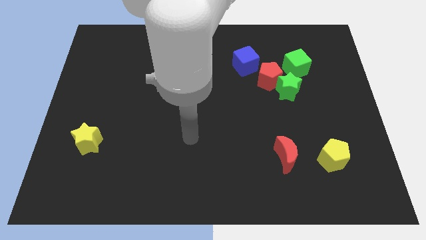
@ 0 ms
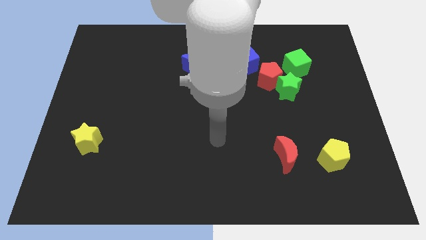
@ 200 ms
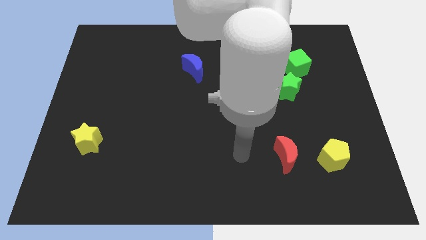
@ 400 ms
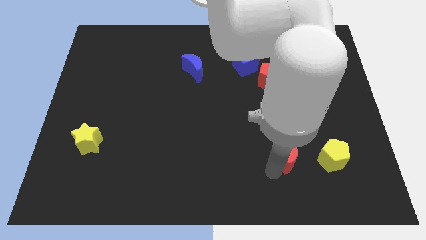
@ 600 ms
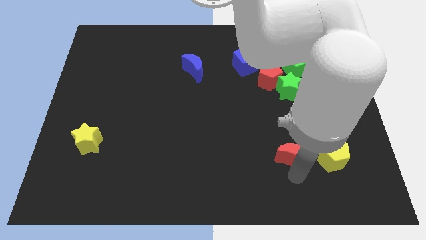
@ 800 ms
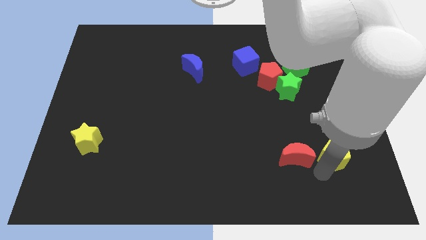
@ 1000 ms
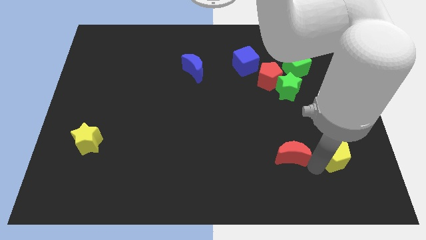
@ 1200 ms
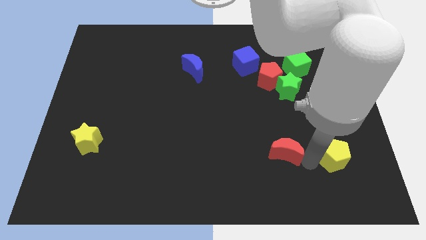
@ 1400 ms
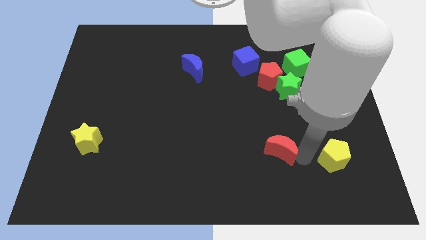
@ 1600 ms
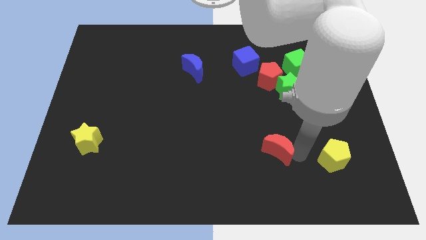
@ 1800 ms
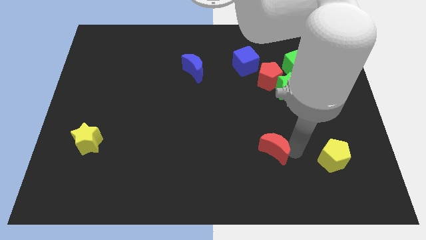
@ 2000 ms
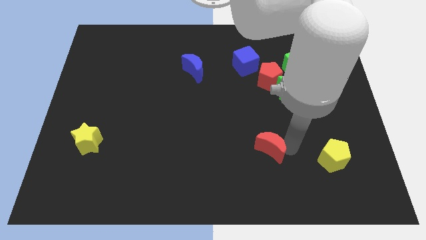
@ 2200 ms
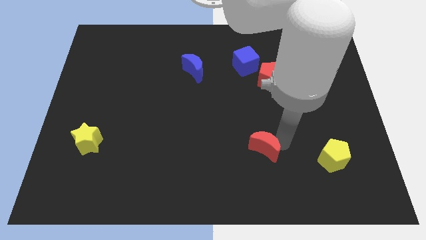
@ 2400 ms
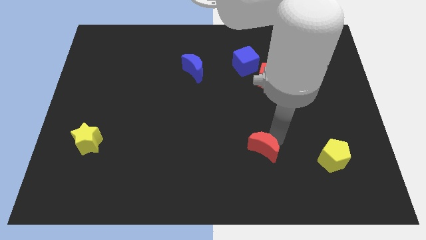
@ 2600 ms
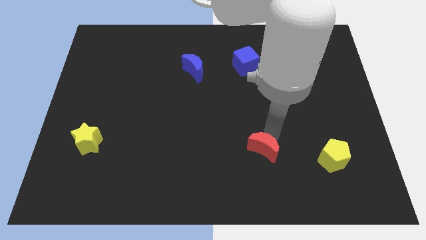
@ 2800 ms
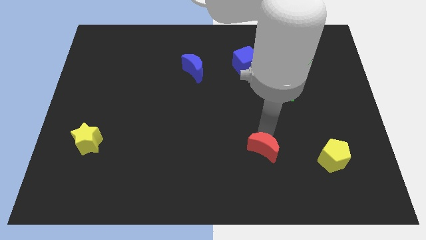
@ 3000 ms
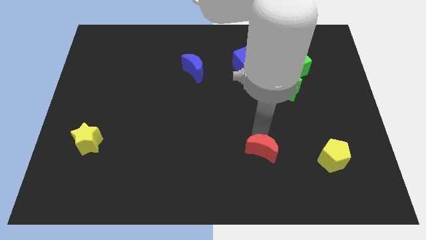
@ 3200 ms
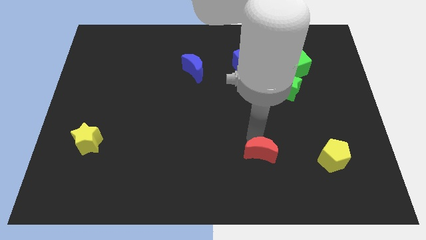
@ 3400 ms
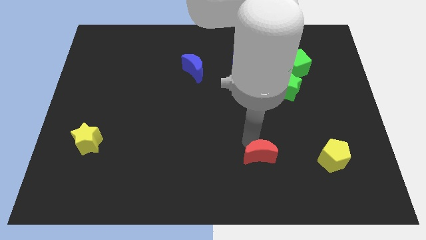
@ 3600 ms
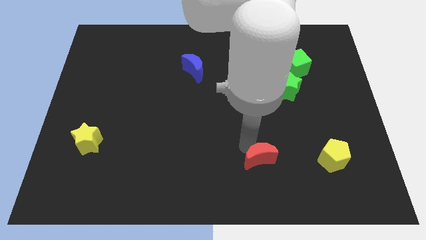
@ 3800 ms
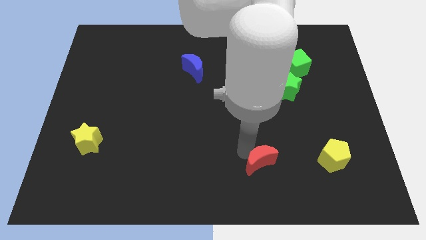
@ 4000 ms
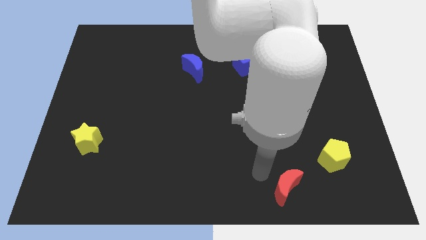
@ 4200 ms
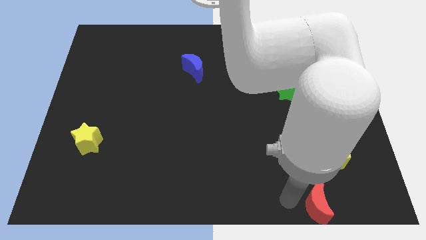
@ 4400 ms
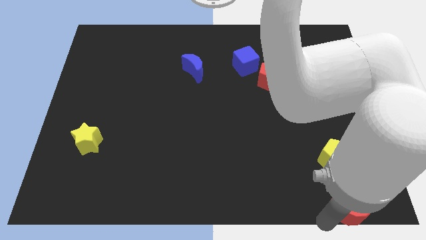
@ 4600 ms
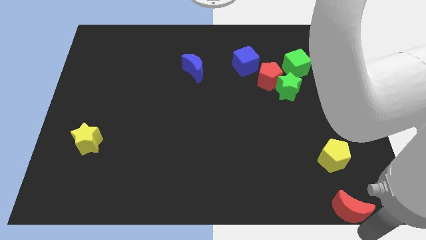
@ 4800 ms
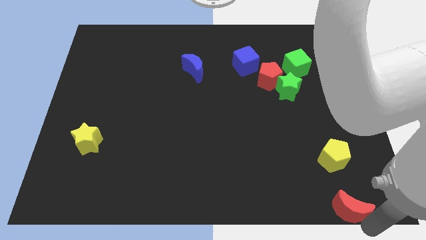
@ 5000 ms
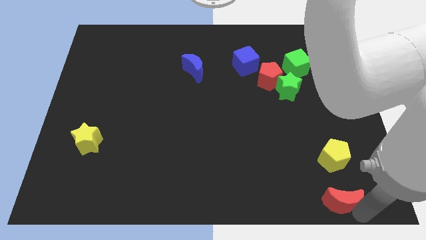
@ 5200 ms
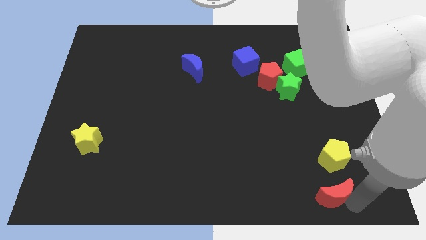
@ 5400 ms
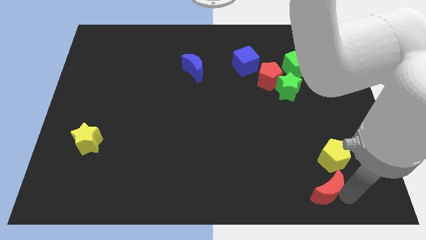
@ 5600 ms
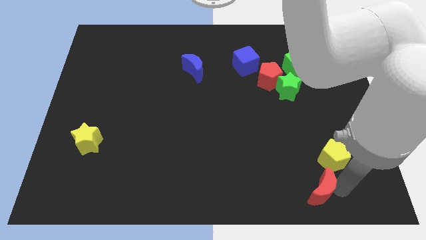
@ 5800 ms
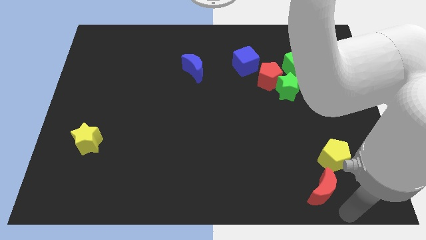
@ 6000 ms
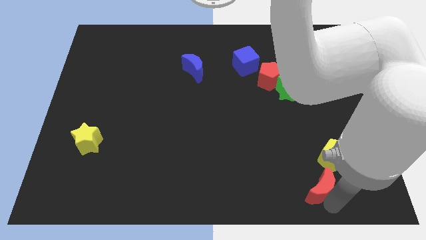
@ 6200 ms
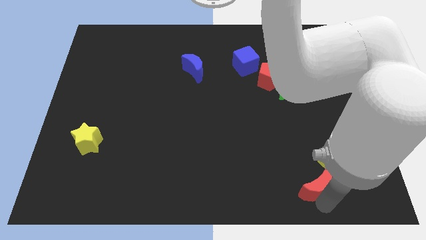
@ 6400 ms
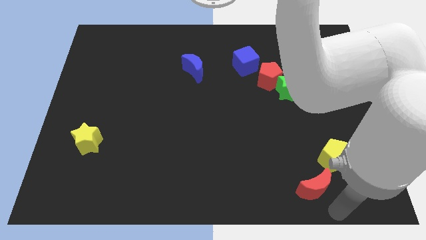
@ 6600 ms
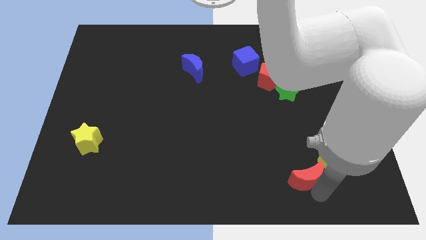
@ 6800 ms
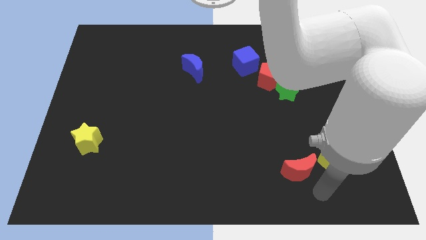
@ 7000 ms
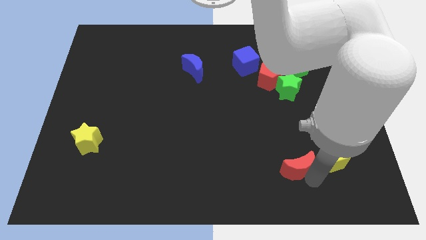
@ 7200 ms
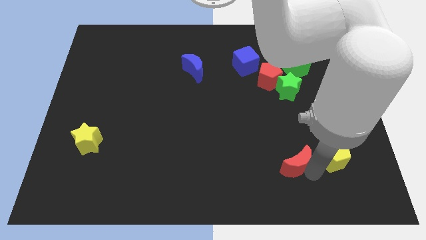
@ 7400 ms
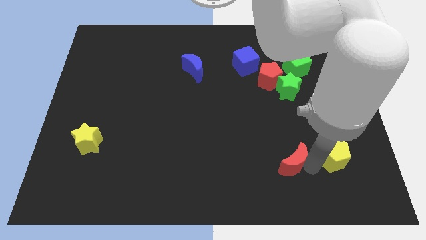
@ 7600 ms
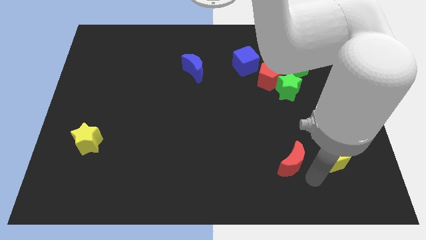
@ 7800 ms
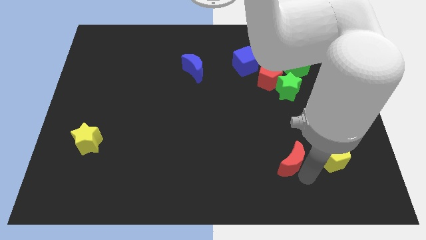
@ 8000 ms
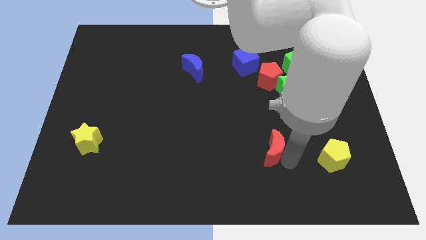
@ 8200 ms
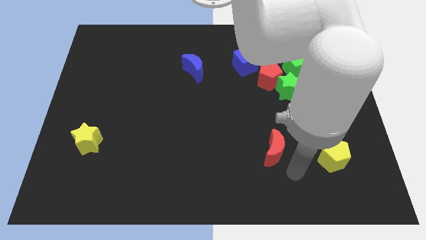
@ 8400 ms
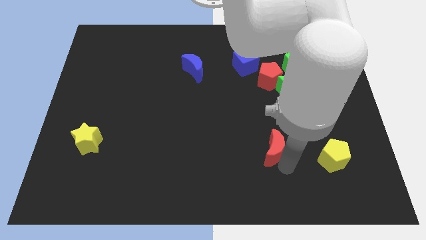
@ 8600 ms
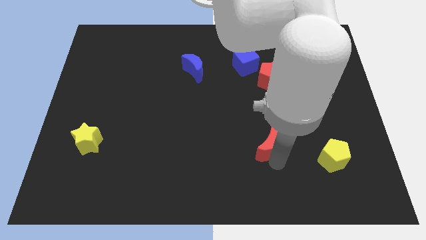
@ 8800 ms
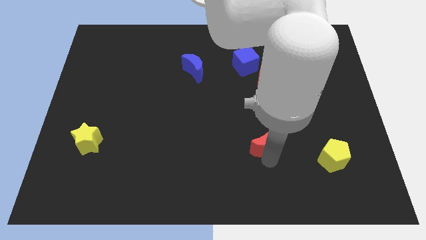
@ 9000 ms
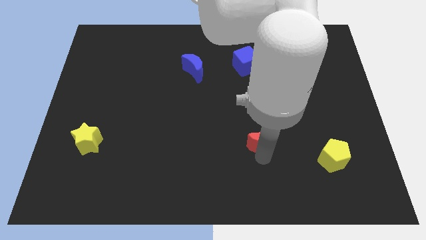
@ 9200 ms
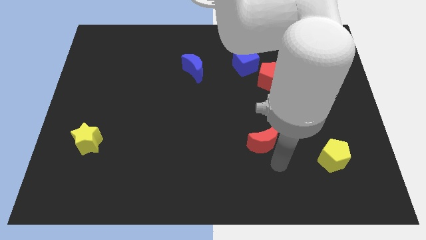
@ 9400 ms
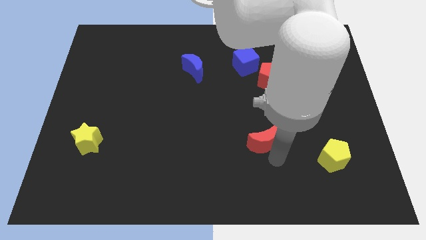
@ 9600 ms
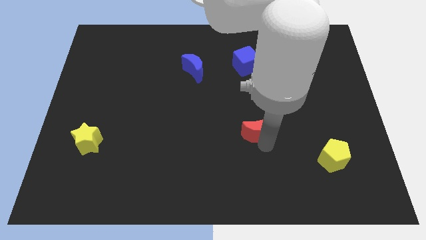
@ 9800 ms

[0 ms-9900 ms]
slightly slide the red moon up and left

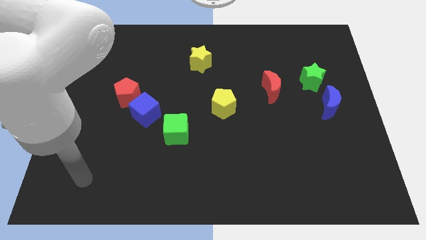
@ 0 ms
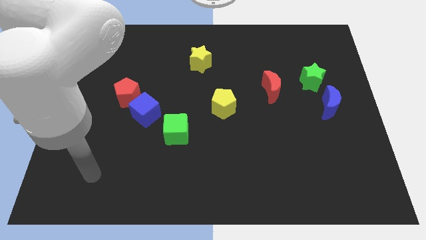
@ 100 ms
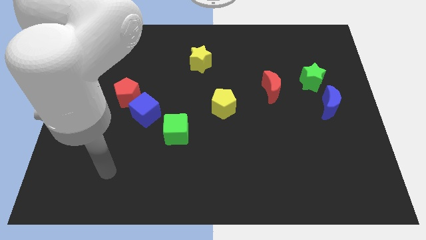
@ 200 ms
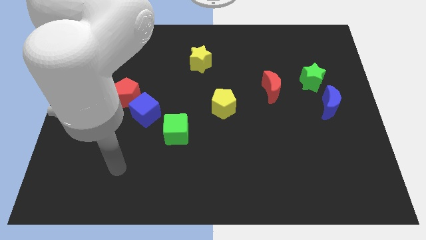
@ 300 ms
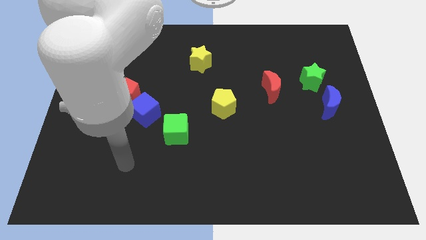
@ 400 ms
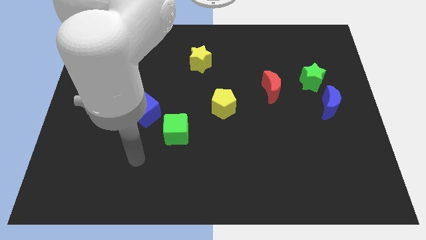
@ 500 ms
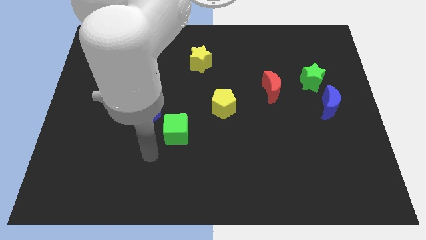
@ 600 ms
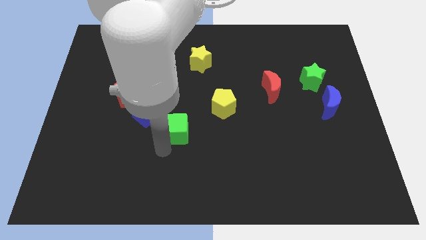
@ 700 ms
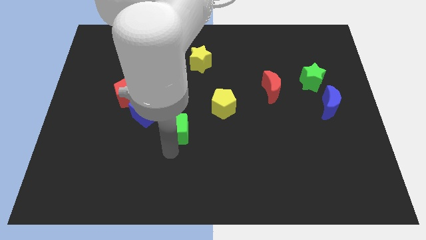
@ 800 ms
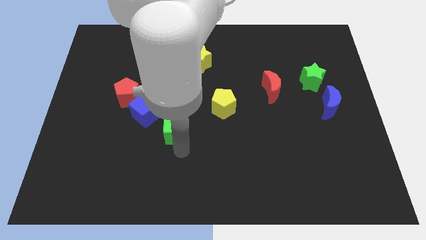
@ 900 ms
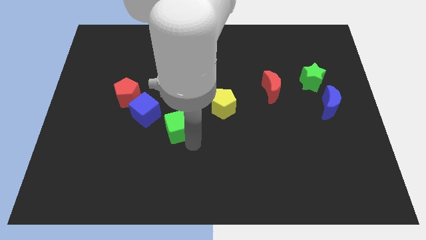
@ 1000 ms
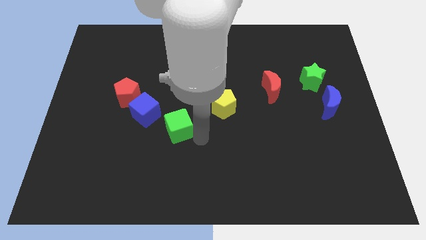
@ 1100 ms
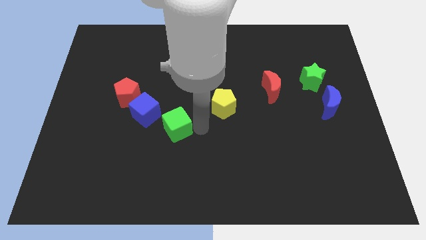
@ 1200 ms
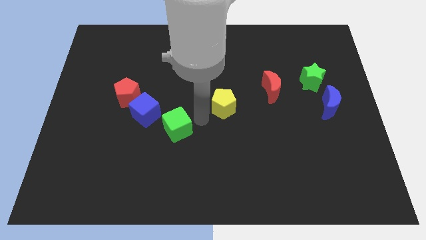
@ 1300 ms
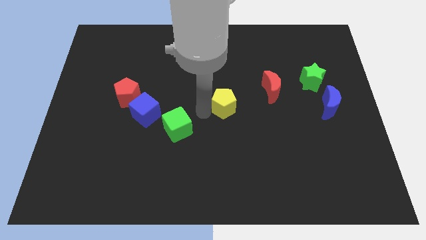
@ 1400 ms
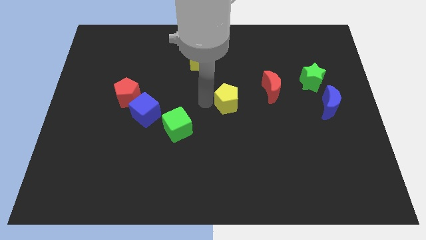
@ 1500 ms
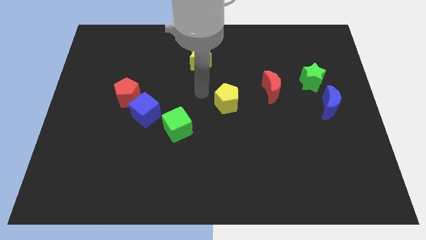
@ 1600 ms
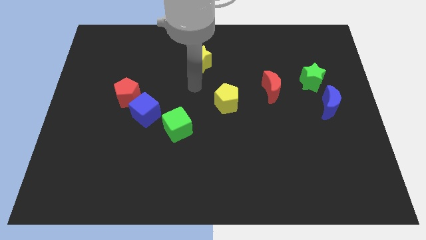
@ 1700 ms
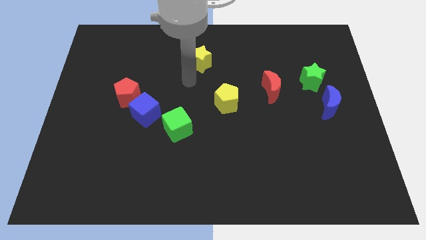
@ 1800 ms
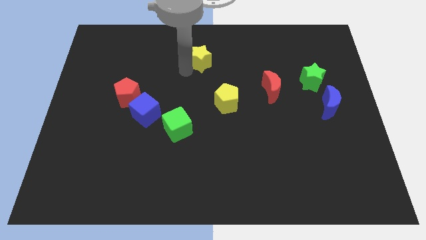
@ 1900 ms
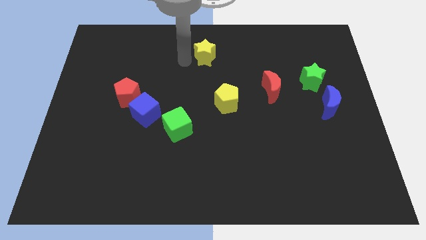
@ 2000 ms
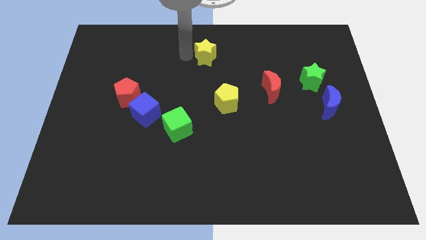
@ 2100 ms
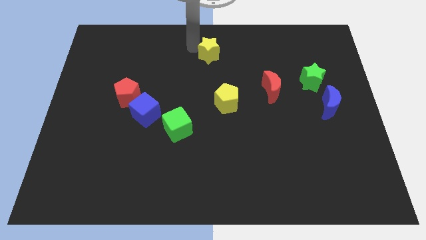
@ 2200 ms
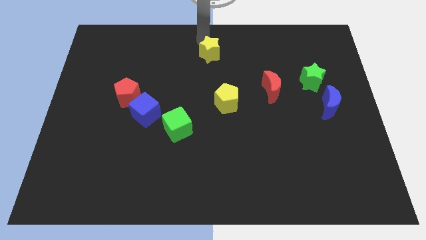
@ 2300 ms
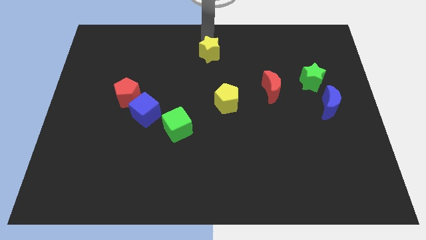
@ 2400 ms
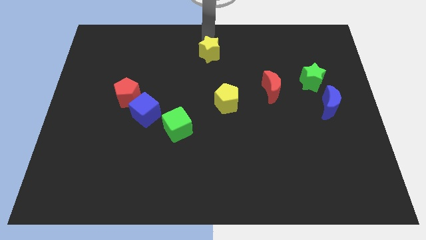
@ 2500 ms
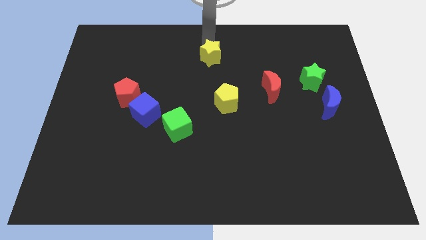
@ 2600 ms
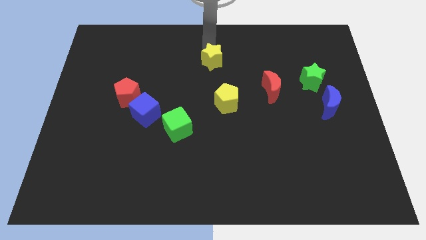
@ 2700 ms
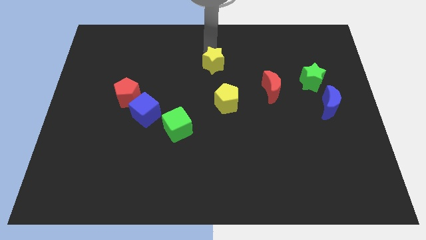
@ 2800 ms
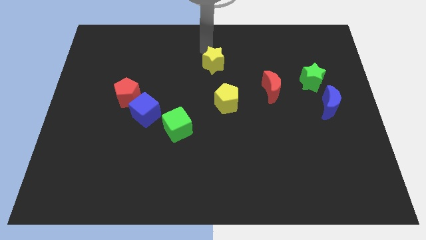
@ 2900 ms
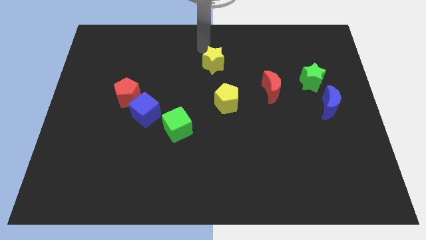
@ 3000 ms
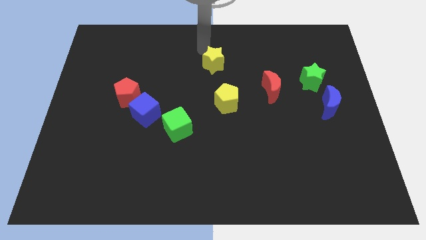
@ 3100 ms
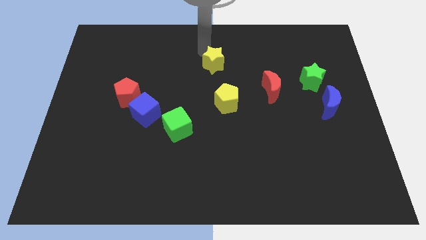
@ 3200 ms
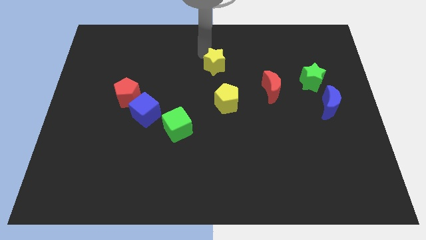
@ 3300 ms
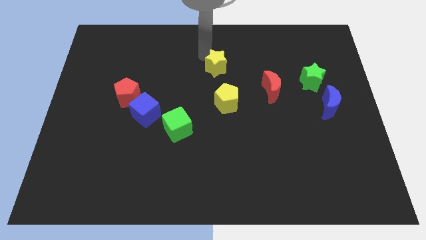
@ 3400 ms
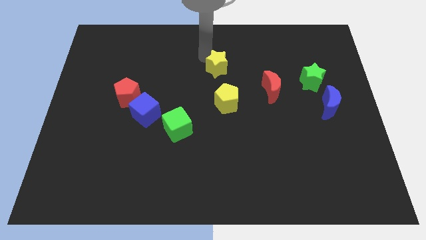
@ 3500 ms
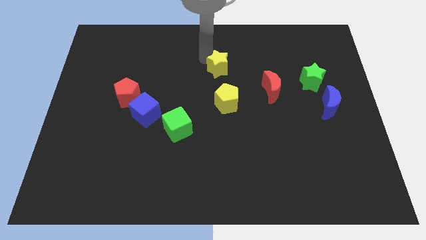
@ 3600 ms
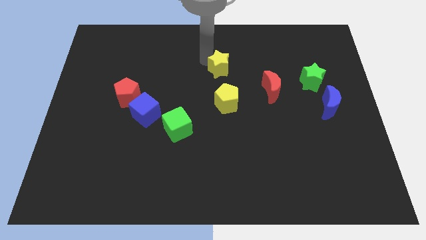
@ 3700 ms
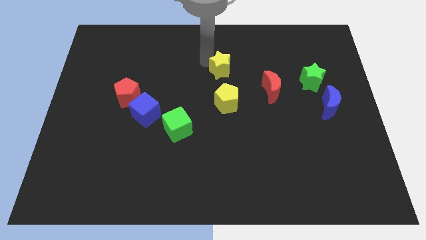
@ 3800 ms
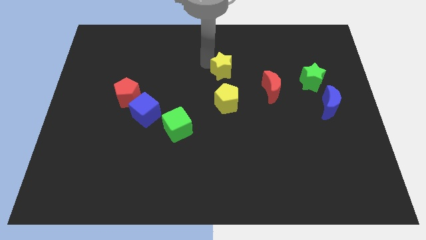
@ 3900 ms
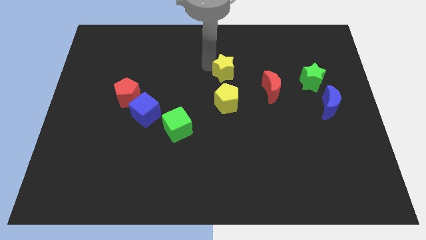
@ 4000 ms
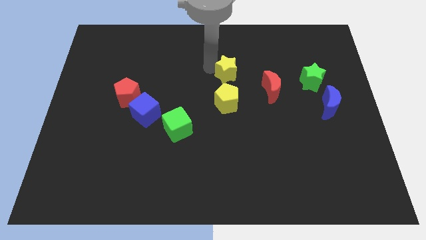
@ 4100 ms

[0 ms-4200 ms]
slightly push the yellow star diagonally down and right
